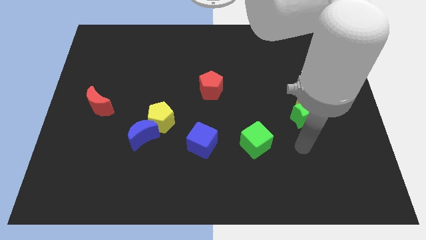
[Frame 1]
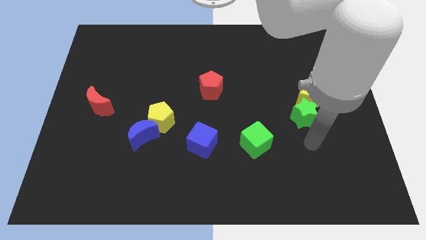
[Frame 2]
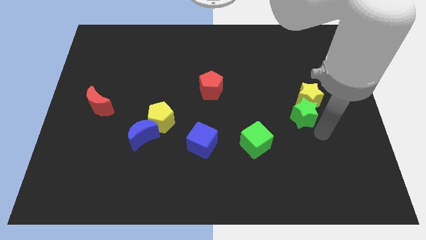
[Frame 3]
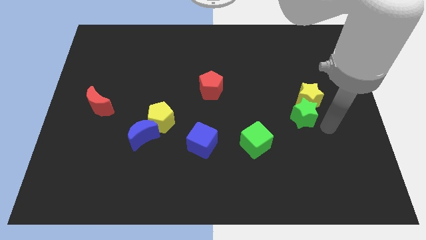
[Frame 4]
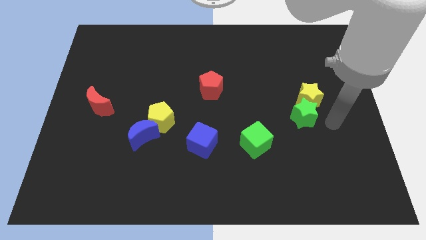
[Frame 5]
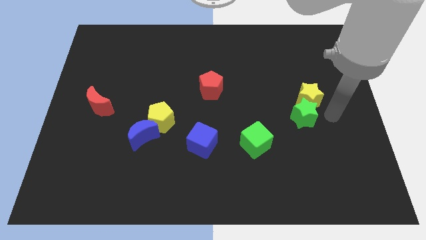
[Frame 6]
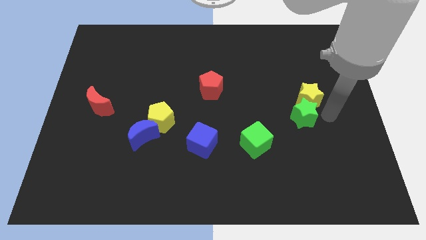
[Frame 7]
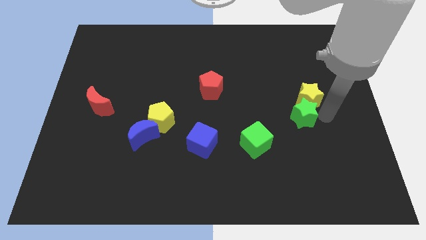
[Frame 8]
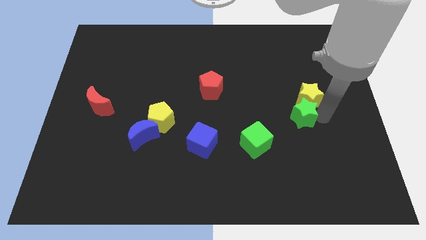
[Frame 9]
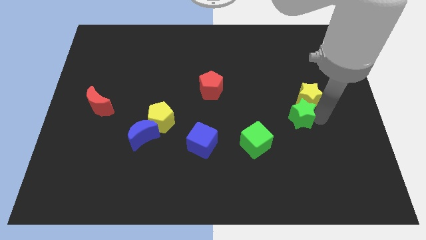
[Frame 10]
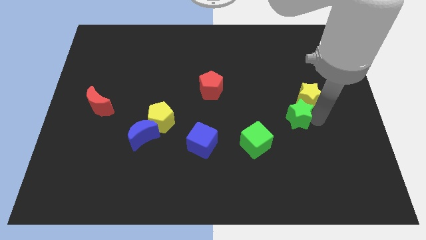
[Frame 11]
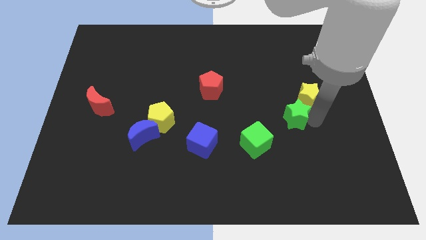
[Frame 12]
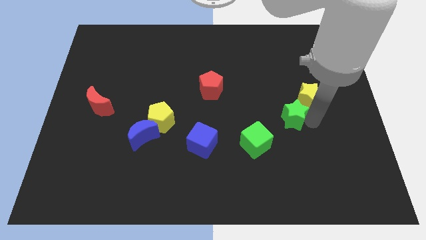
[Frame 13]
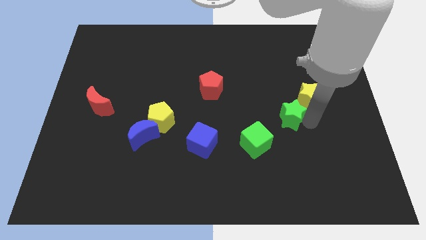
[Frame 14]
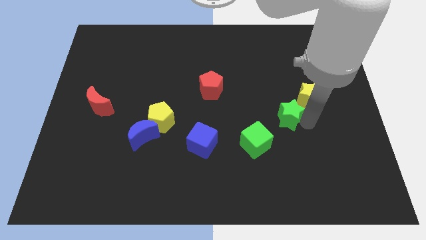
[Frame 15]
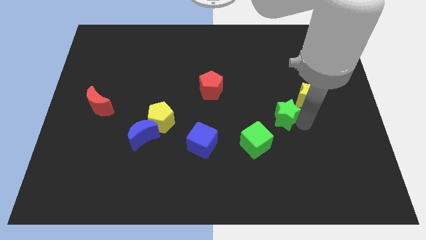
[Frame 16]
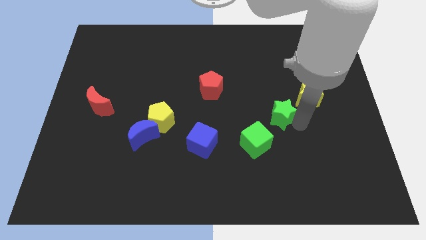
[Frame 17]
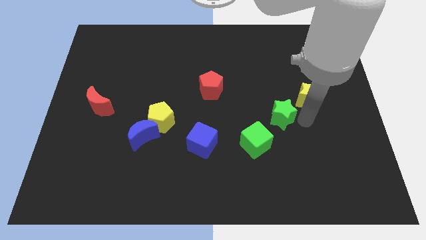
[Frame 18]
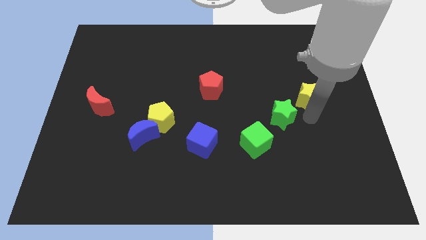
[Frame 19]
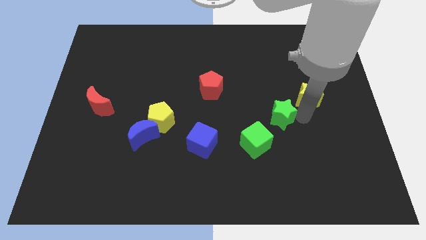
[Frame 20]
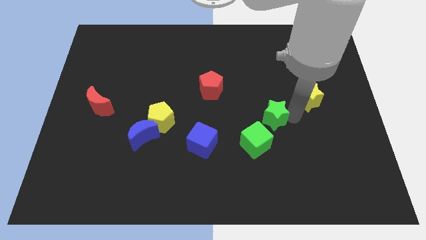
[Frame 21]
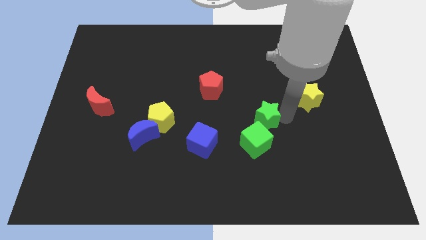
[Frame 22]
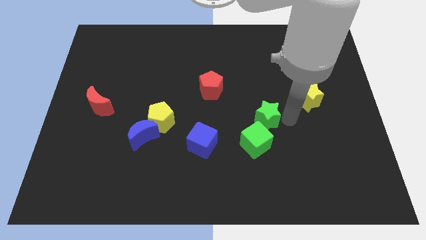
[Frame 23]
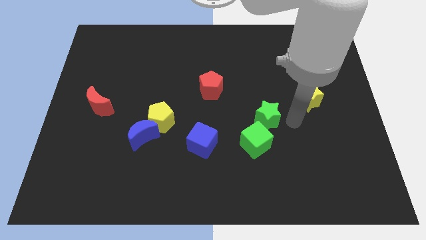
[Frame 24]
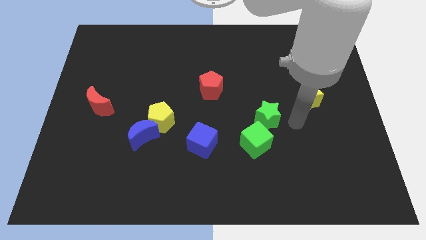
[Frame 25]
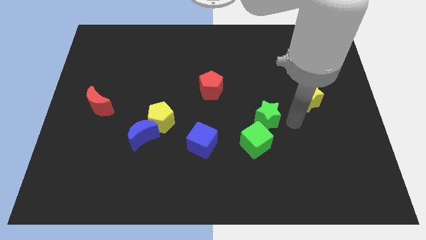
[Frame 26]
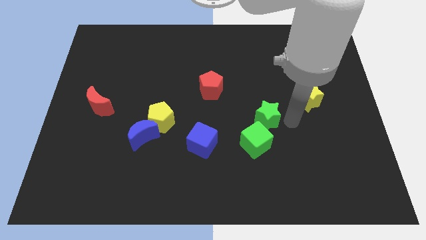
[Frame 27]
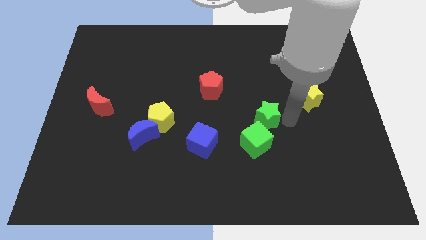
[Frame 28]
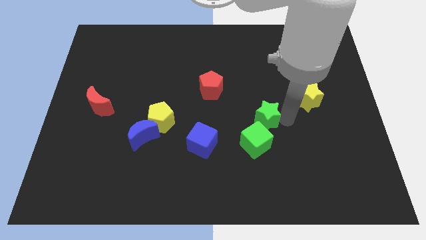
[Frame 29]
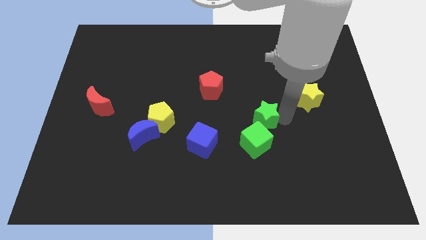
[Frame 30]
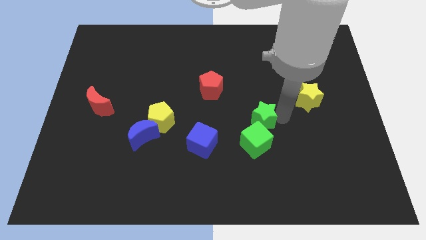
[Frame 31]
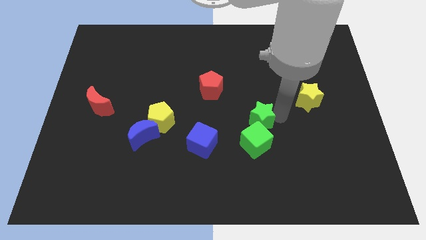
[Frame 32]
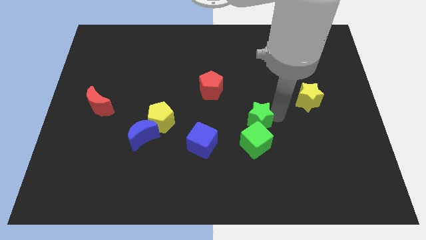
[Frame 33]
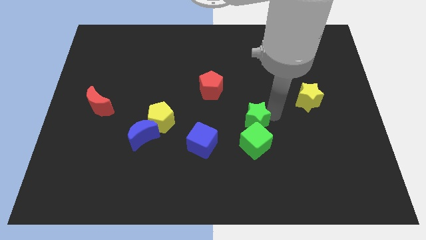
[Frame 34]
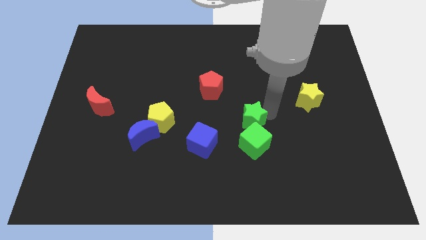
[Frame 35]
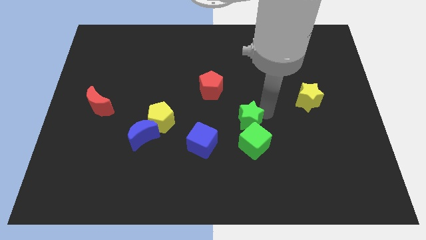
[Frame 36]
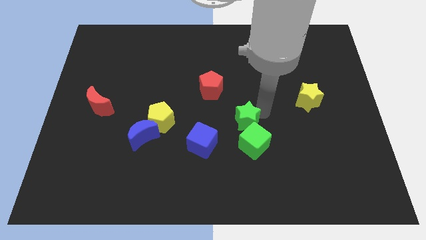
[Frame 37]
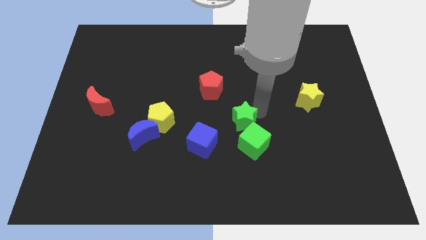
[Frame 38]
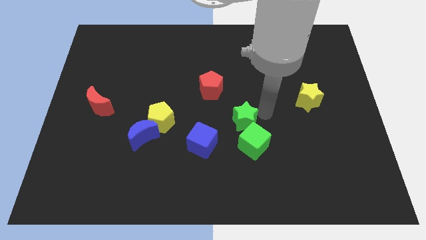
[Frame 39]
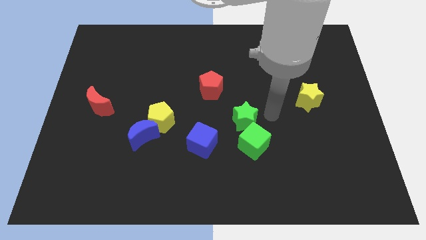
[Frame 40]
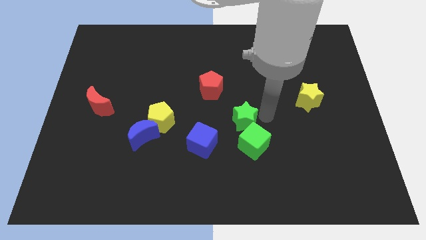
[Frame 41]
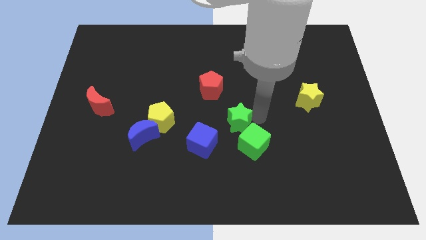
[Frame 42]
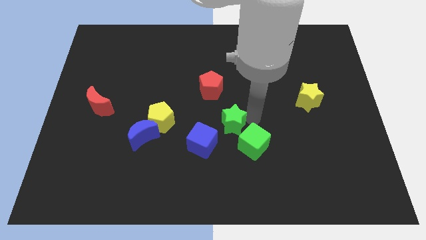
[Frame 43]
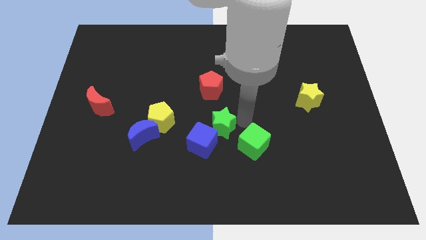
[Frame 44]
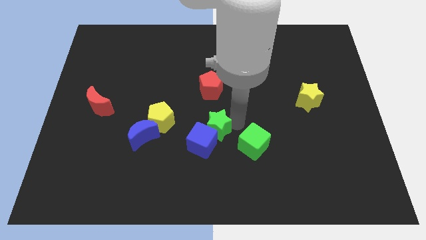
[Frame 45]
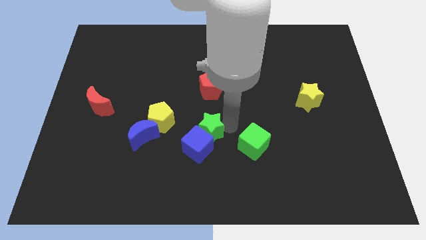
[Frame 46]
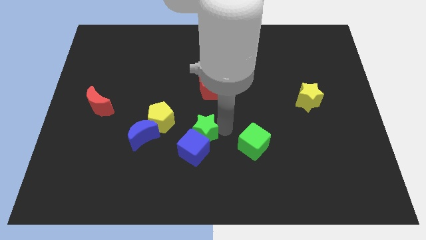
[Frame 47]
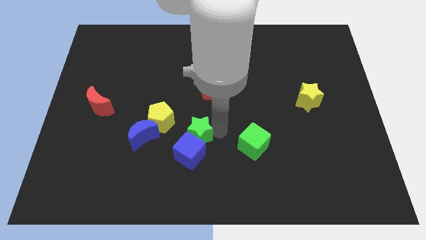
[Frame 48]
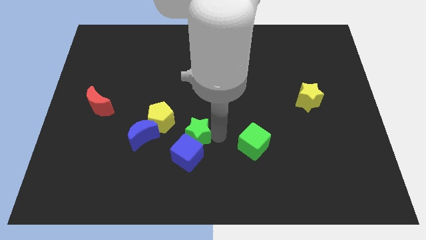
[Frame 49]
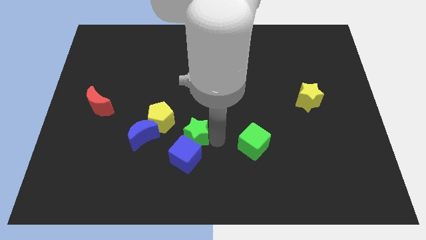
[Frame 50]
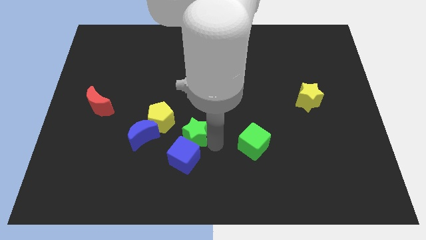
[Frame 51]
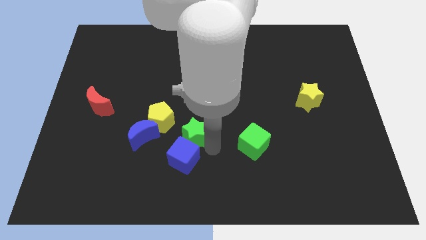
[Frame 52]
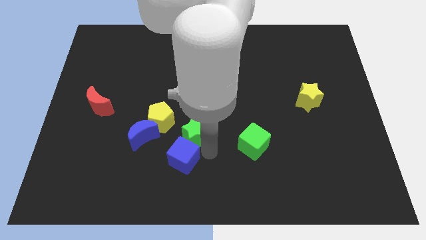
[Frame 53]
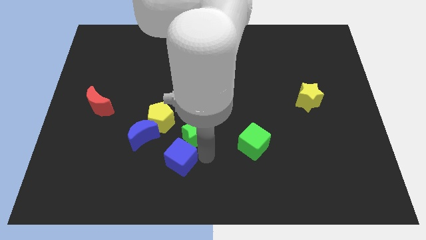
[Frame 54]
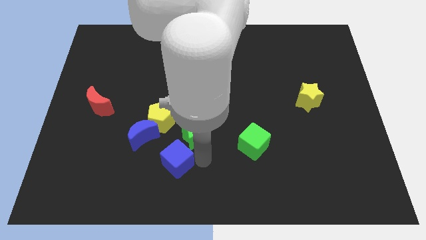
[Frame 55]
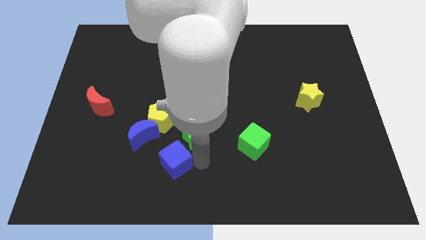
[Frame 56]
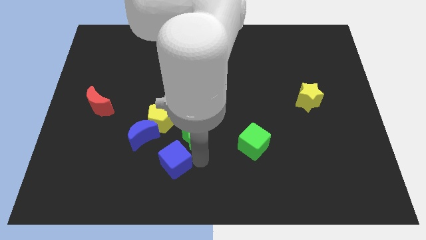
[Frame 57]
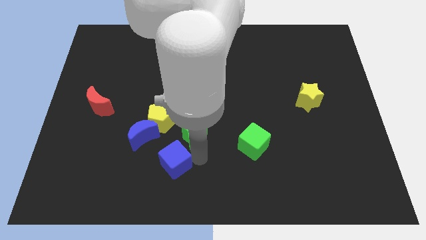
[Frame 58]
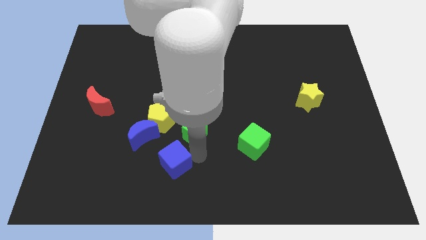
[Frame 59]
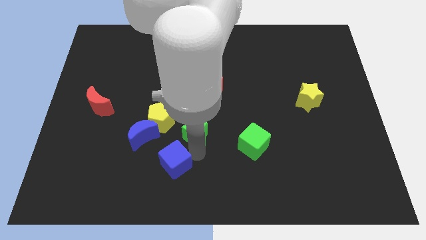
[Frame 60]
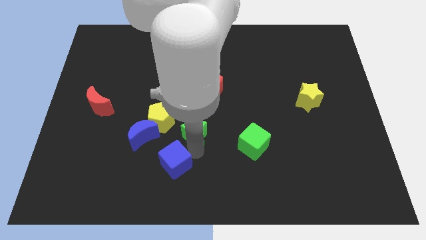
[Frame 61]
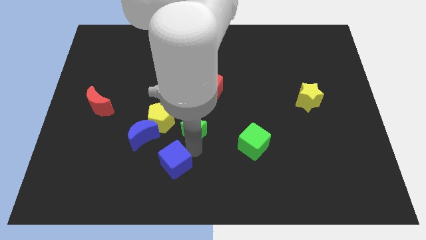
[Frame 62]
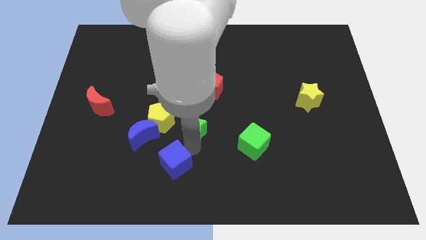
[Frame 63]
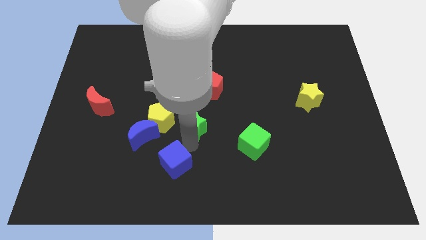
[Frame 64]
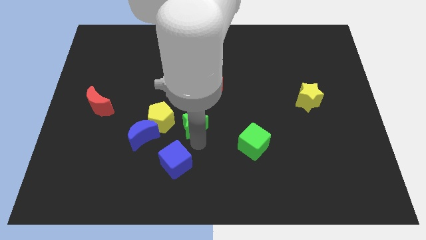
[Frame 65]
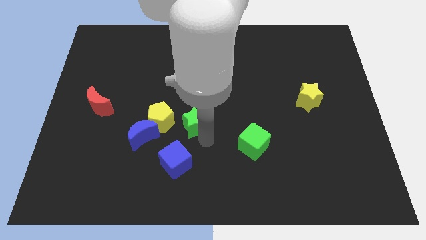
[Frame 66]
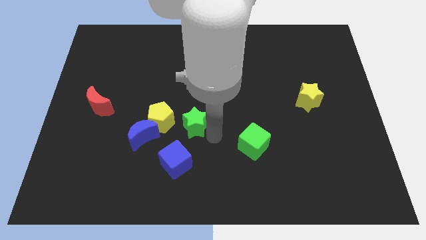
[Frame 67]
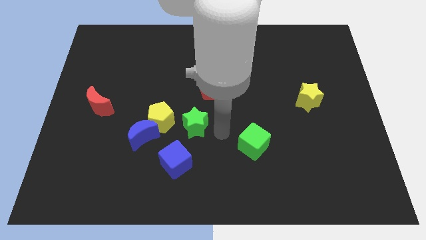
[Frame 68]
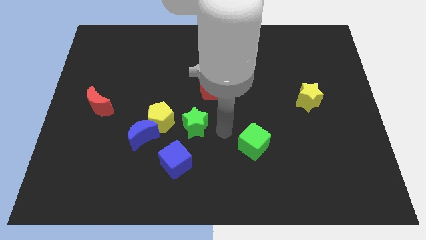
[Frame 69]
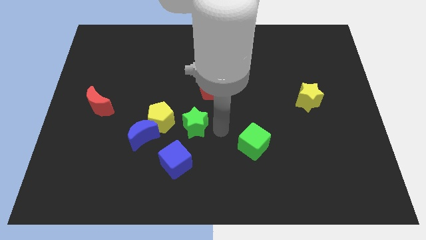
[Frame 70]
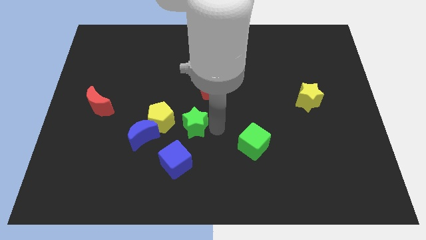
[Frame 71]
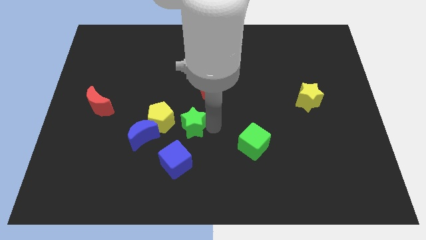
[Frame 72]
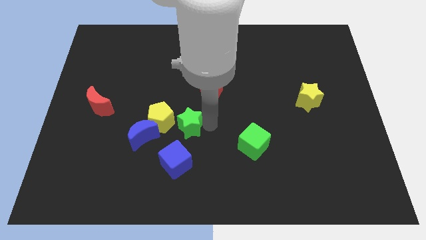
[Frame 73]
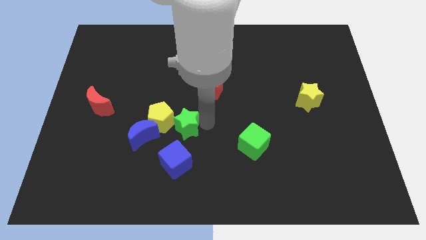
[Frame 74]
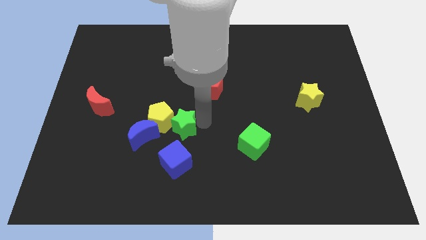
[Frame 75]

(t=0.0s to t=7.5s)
move the green star towards the yellow pentagon
